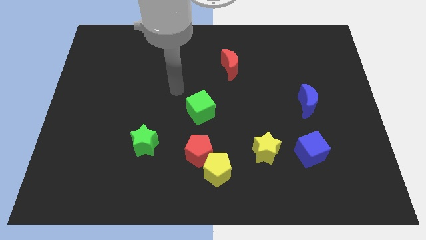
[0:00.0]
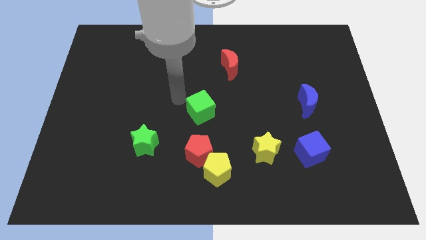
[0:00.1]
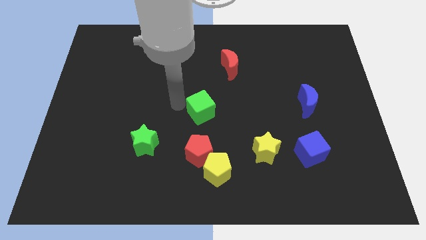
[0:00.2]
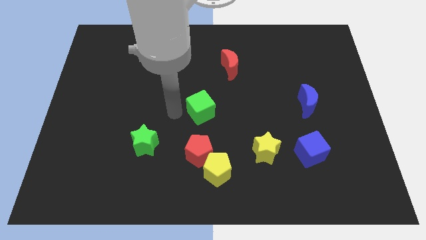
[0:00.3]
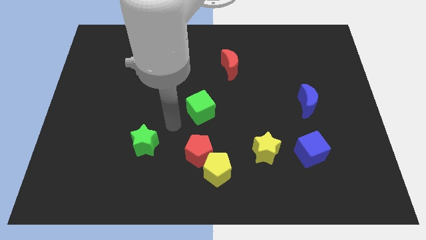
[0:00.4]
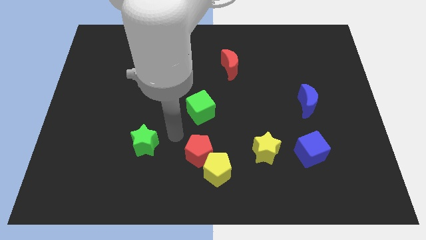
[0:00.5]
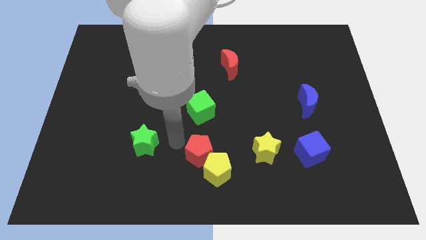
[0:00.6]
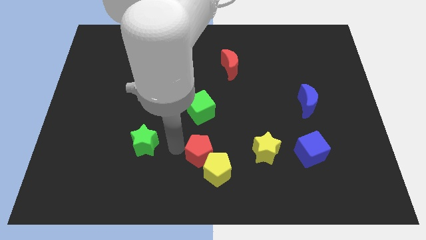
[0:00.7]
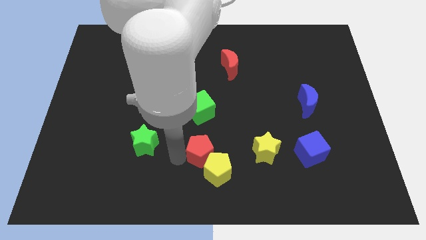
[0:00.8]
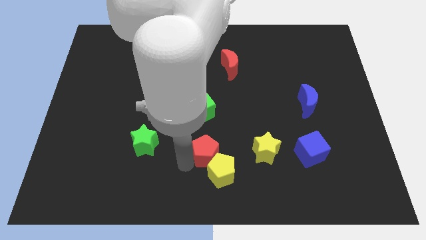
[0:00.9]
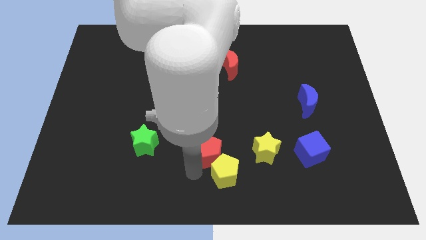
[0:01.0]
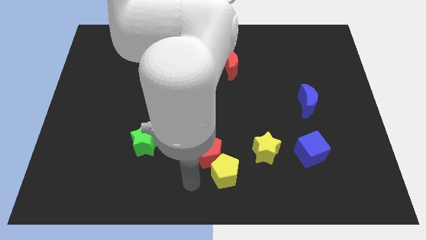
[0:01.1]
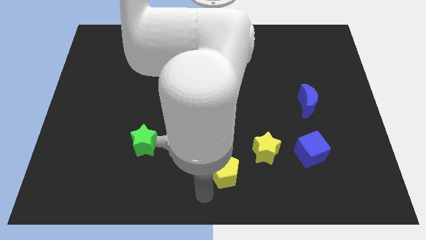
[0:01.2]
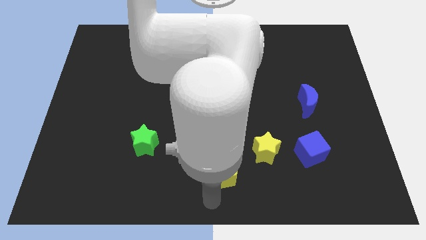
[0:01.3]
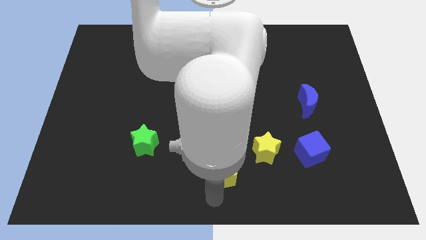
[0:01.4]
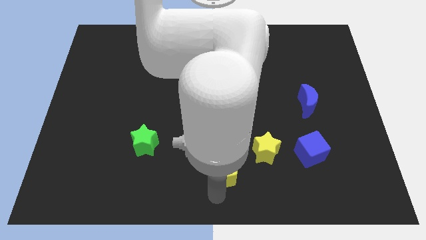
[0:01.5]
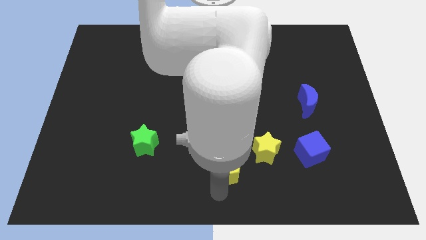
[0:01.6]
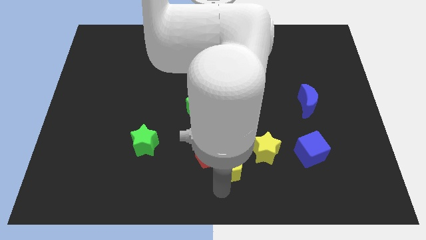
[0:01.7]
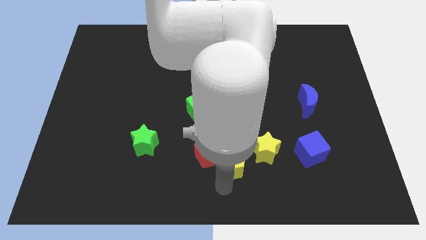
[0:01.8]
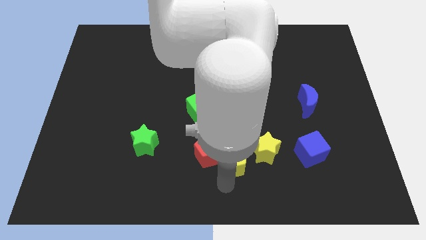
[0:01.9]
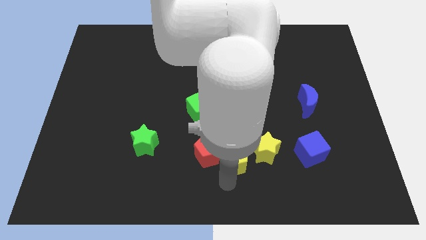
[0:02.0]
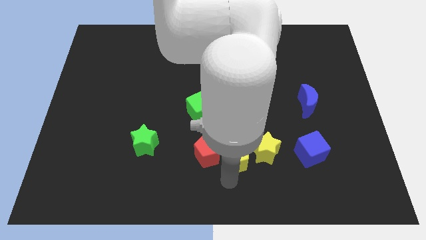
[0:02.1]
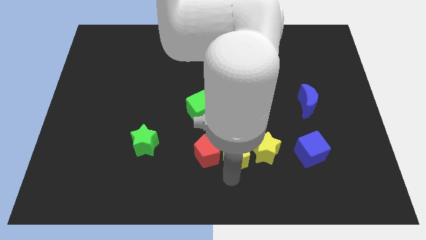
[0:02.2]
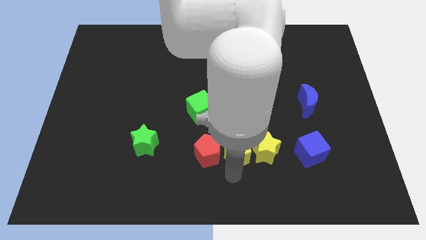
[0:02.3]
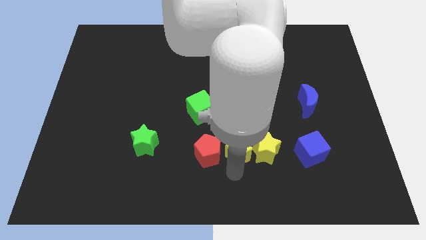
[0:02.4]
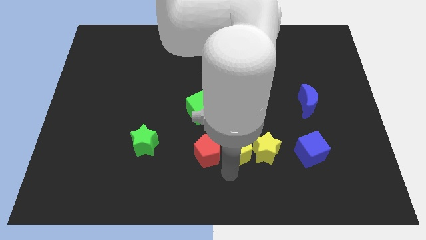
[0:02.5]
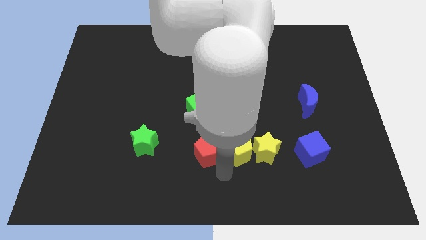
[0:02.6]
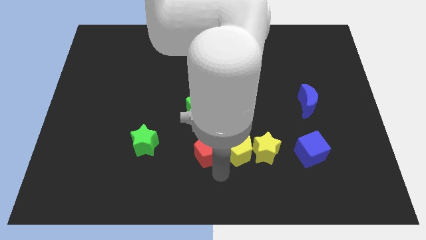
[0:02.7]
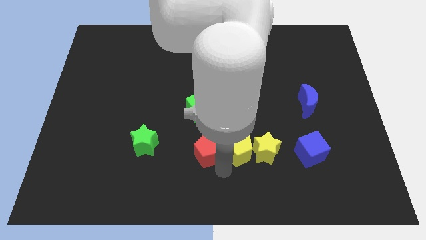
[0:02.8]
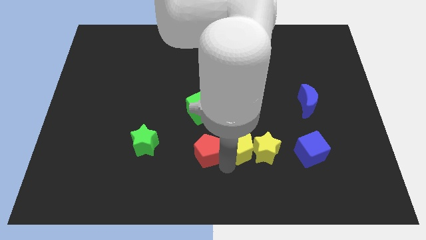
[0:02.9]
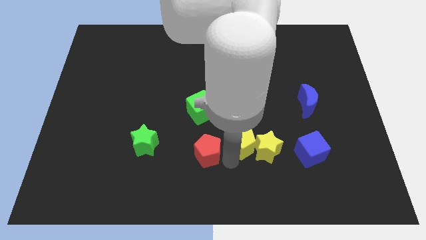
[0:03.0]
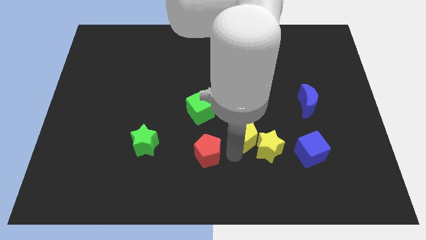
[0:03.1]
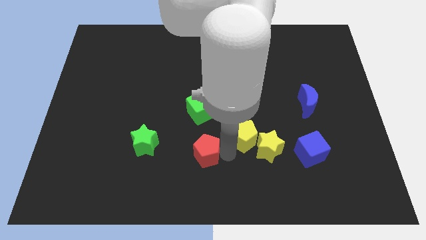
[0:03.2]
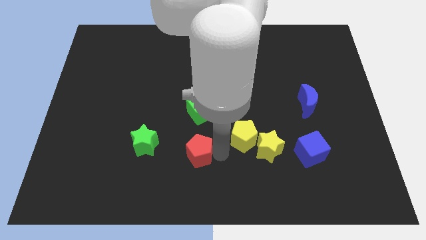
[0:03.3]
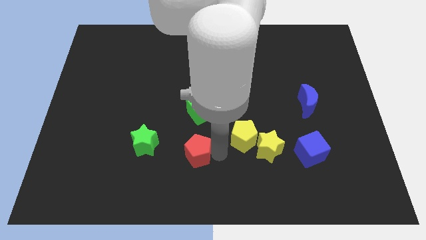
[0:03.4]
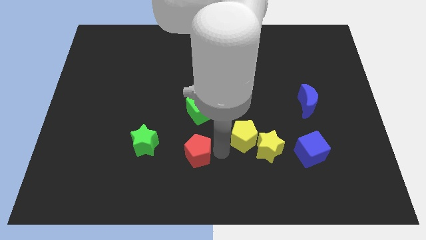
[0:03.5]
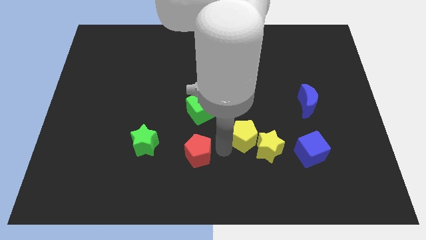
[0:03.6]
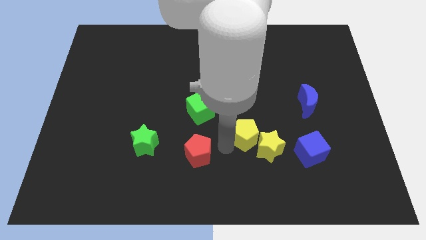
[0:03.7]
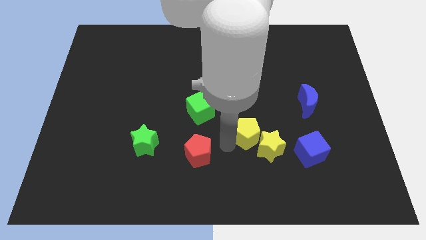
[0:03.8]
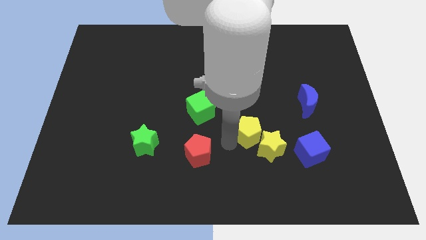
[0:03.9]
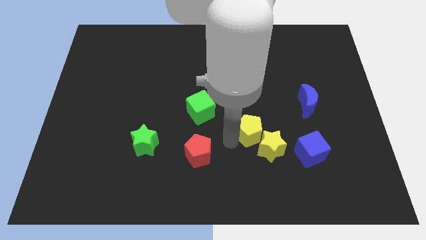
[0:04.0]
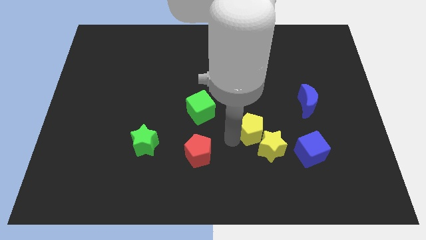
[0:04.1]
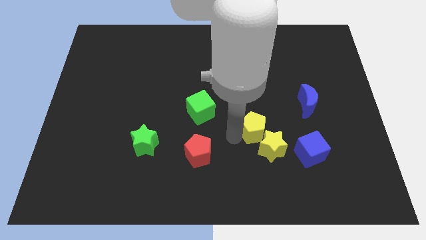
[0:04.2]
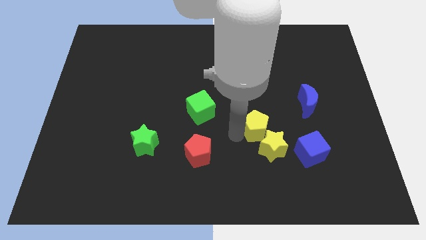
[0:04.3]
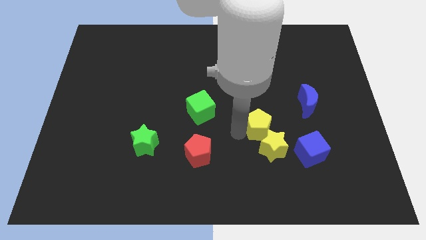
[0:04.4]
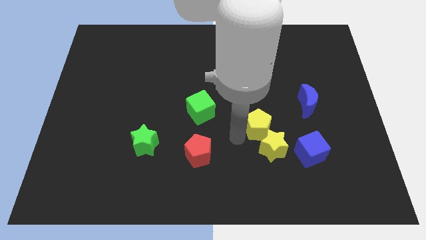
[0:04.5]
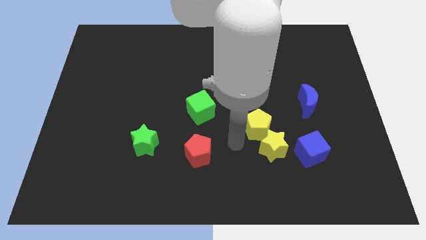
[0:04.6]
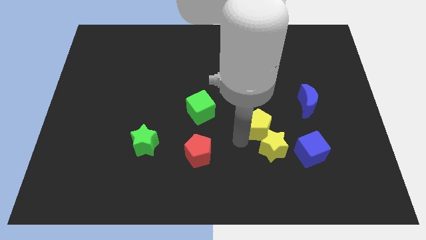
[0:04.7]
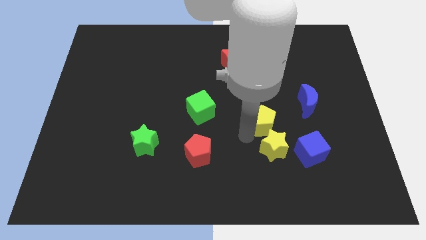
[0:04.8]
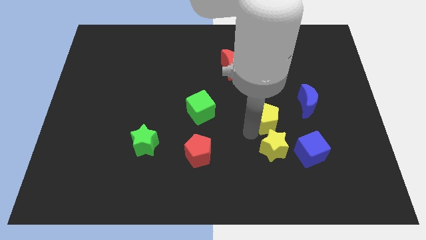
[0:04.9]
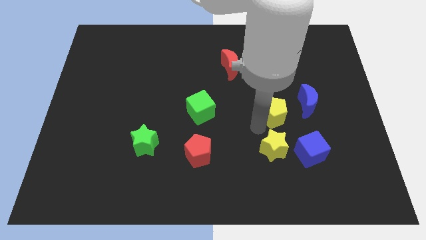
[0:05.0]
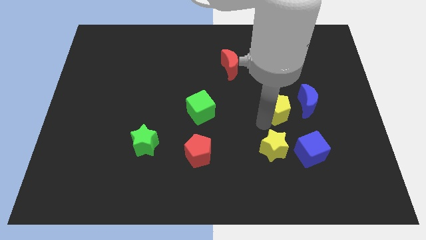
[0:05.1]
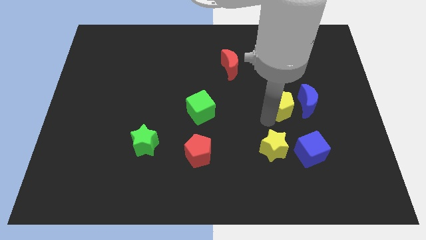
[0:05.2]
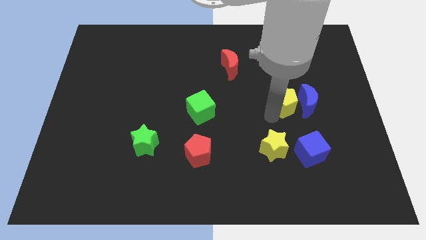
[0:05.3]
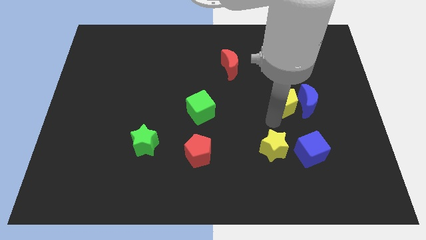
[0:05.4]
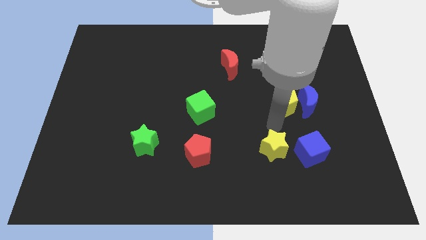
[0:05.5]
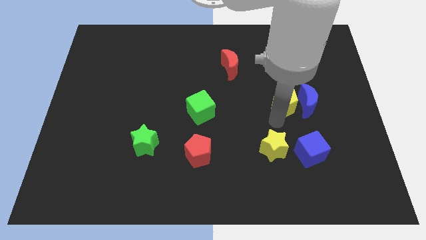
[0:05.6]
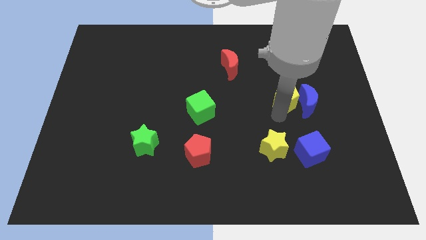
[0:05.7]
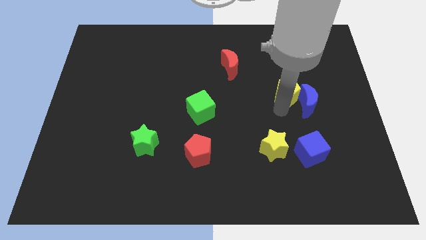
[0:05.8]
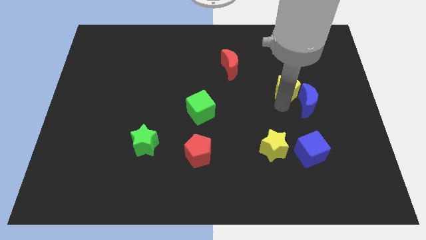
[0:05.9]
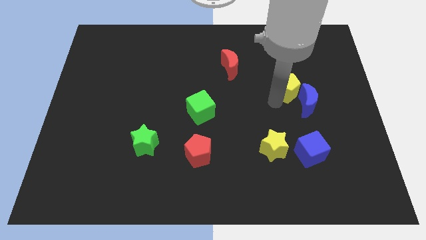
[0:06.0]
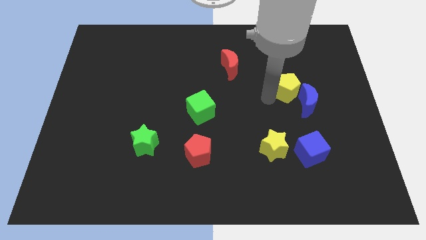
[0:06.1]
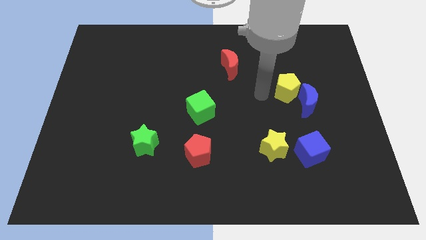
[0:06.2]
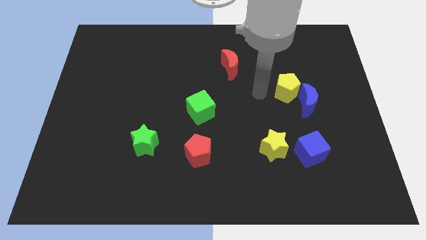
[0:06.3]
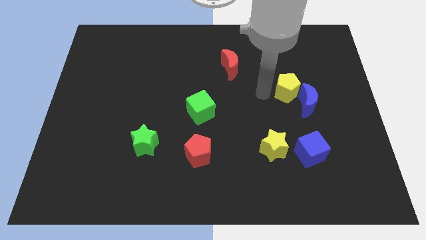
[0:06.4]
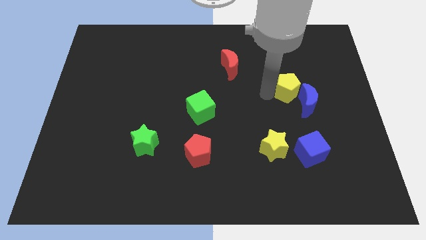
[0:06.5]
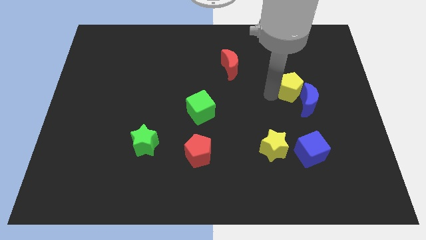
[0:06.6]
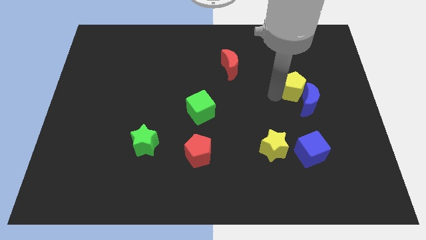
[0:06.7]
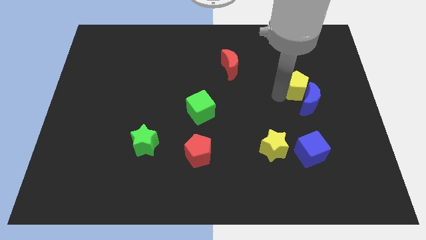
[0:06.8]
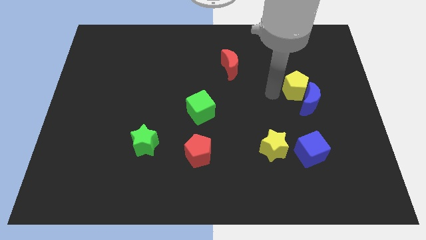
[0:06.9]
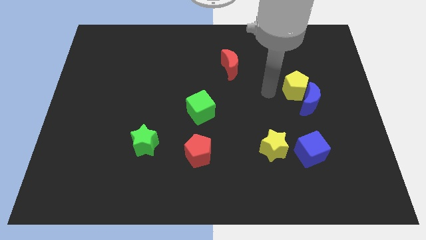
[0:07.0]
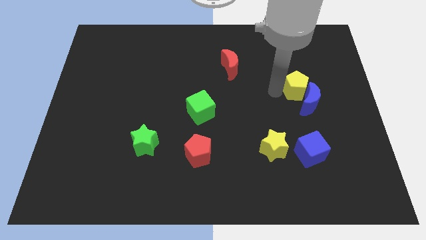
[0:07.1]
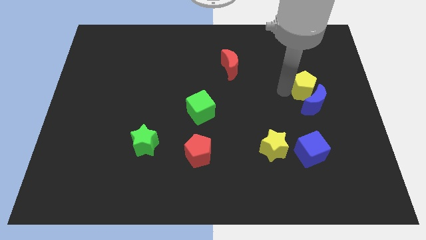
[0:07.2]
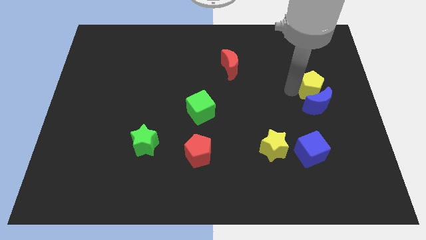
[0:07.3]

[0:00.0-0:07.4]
slide the yellow pentagon to the top right of the blue moon
